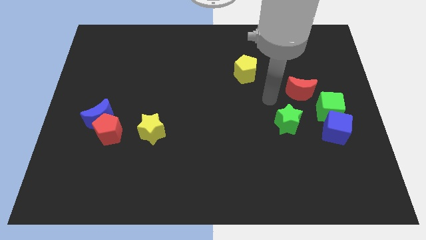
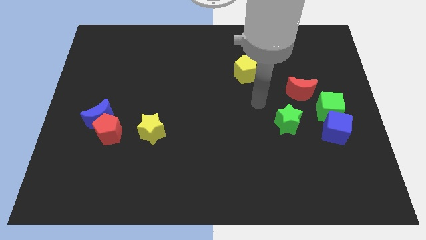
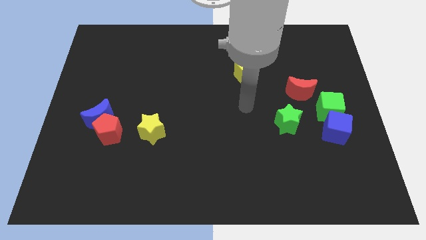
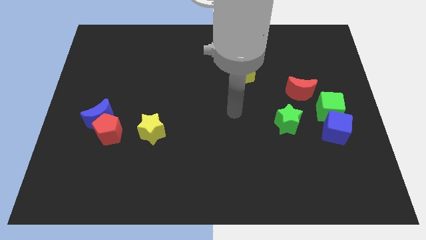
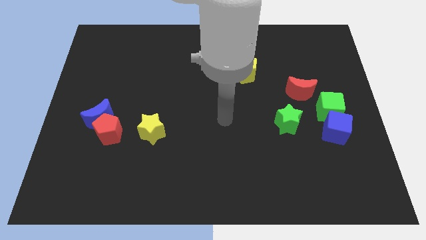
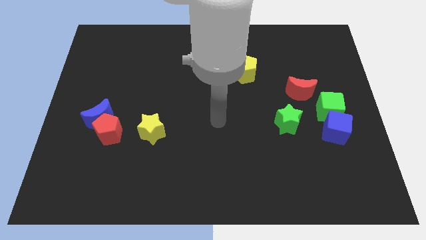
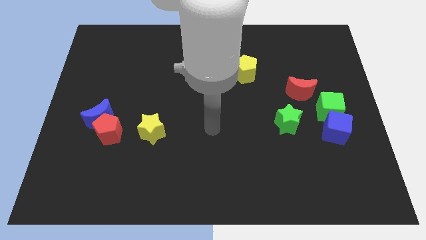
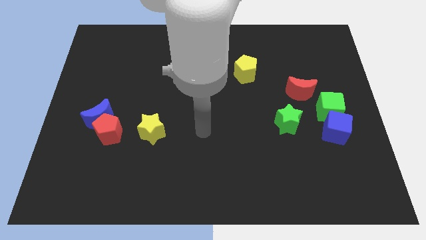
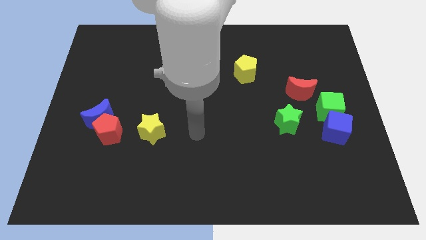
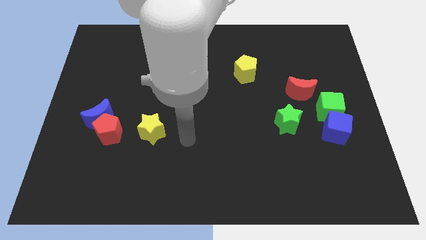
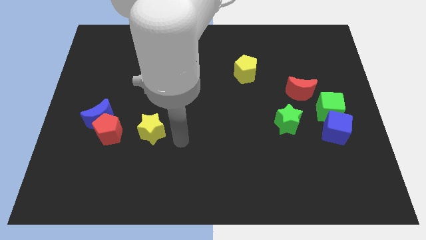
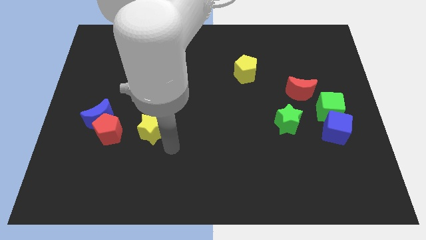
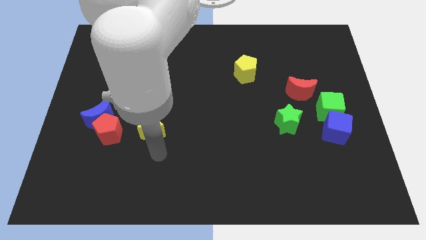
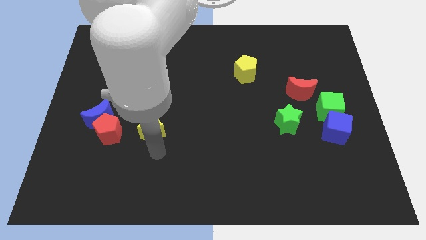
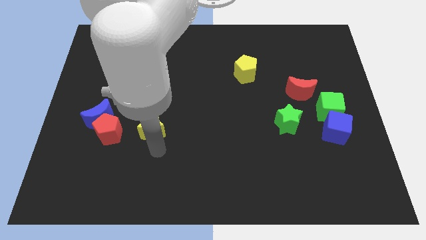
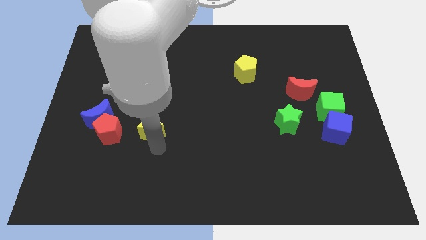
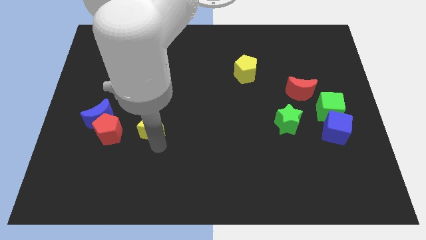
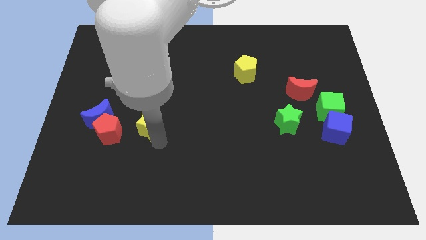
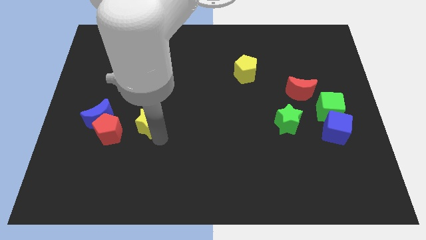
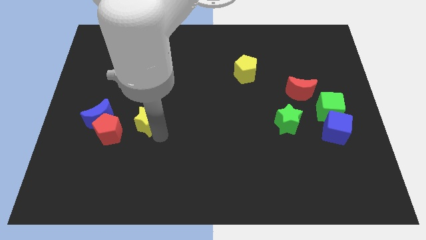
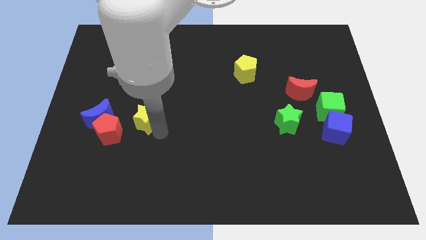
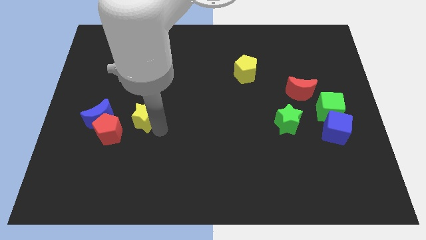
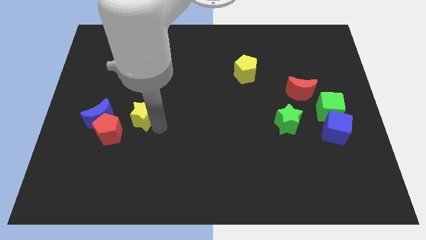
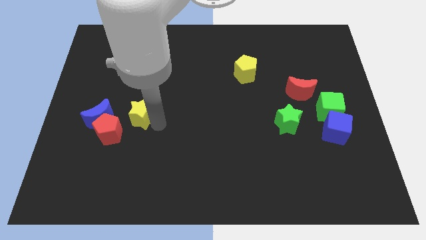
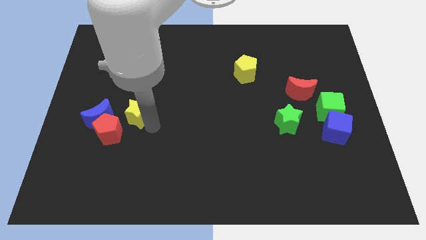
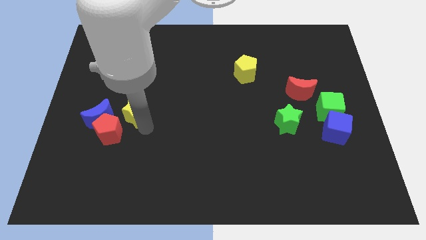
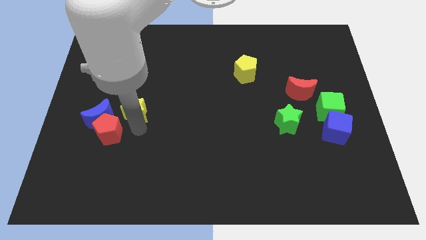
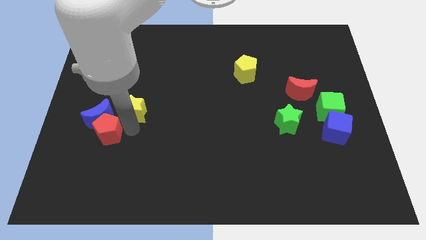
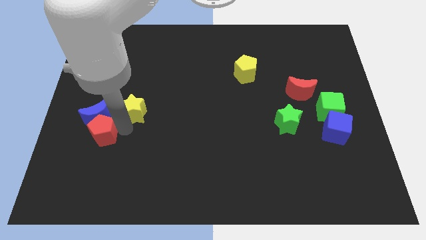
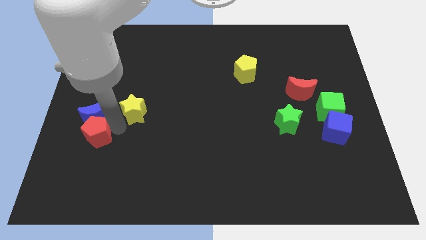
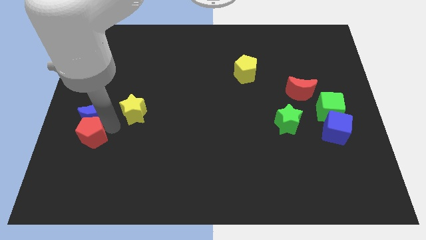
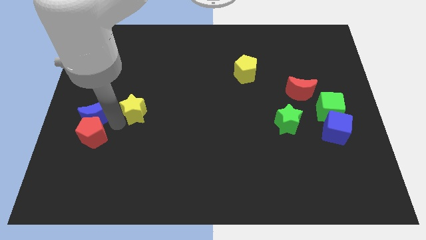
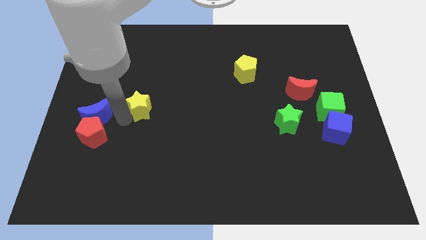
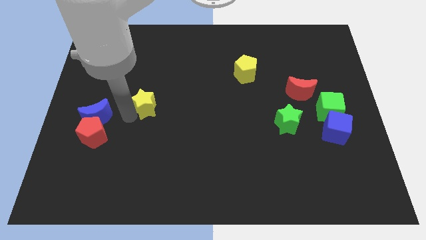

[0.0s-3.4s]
move the yellow star a little upwards

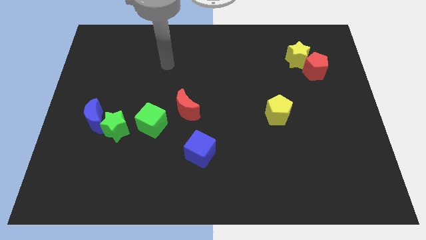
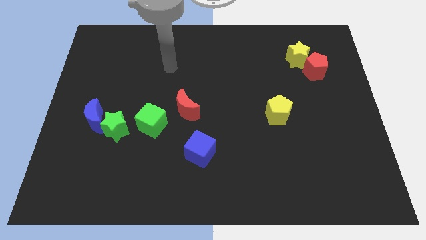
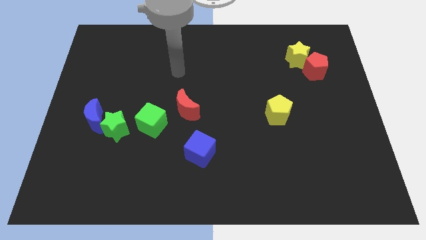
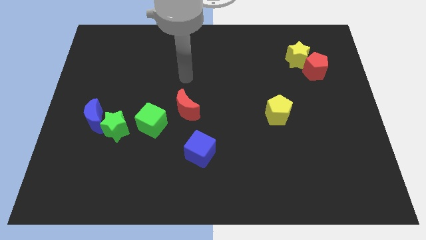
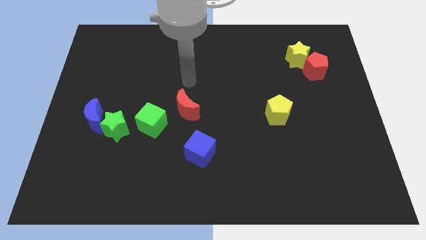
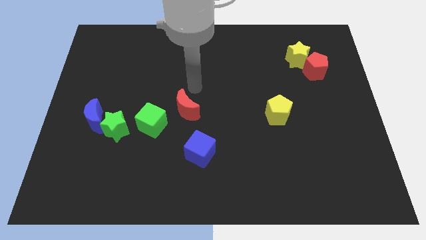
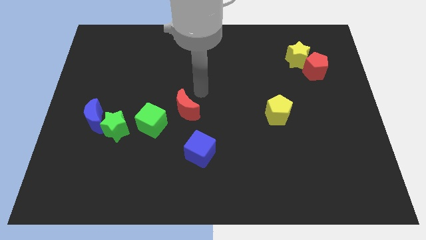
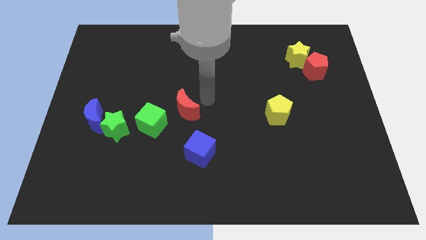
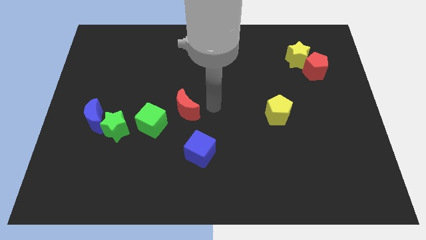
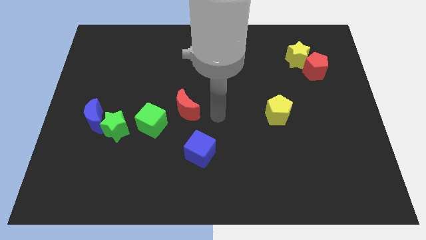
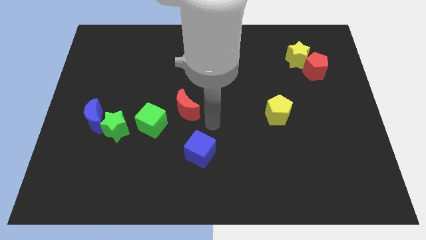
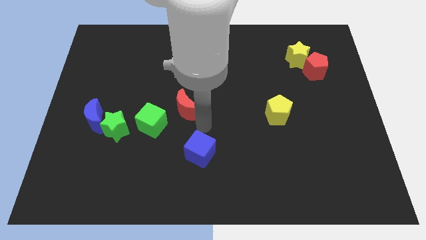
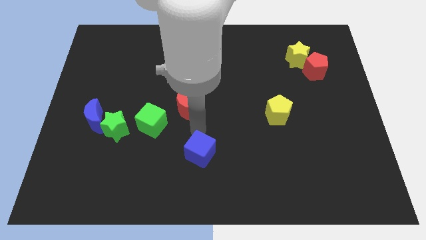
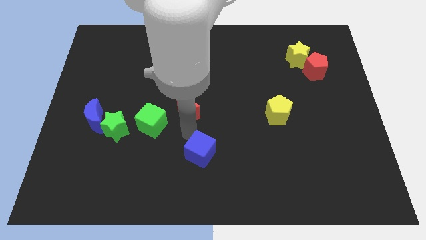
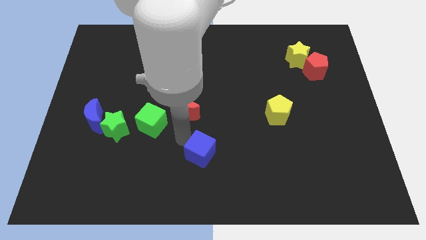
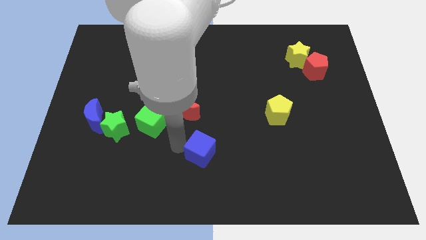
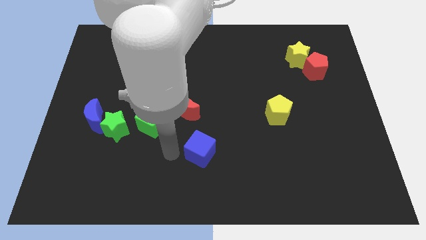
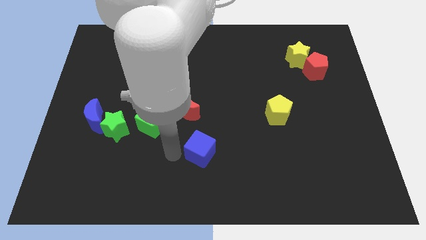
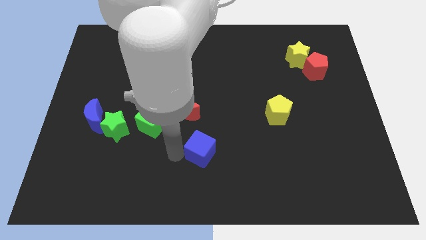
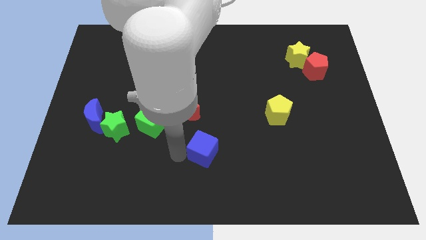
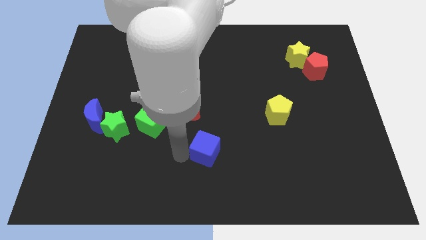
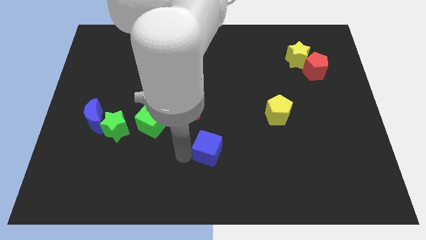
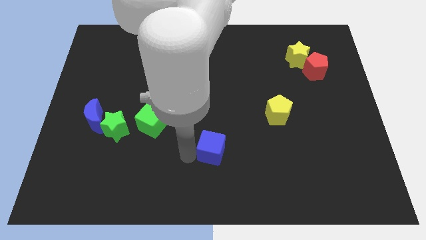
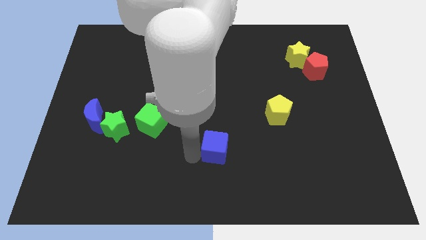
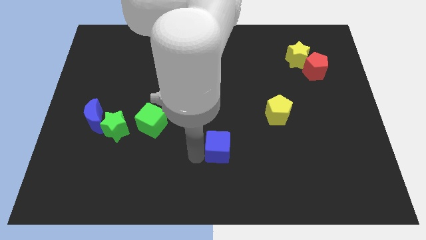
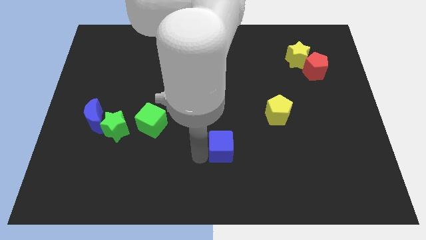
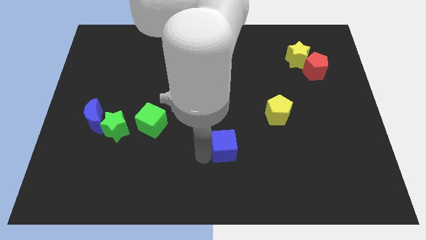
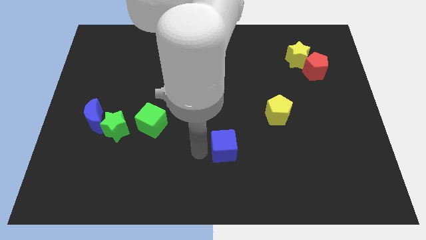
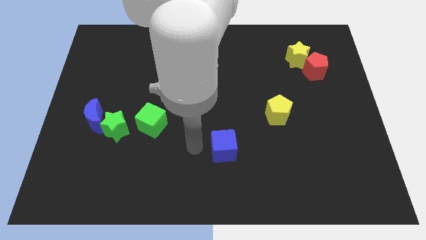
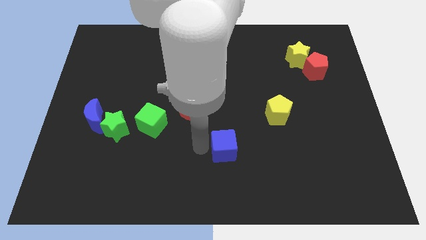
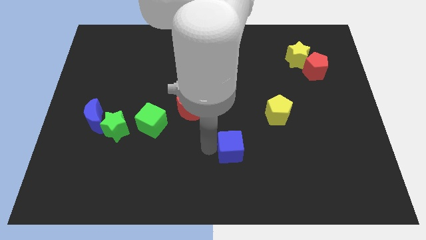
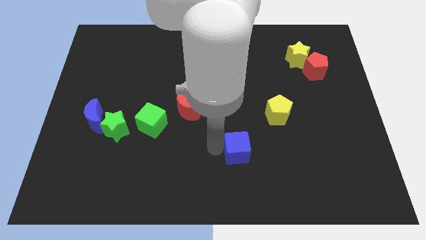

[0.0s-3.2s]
push the blue cube right somewhat

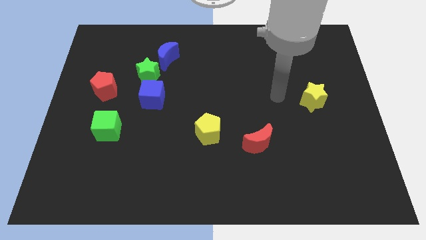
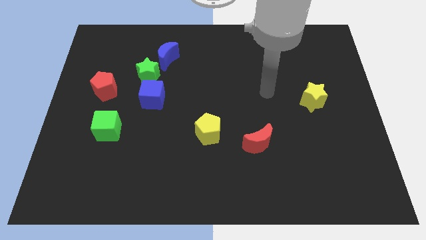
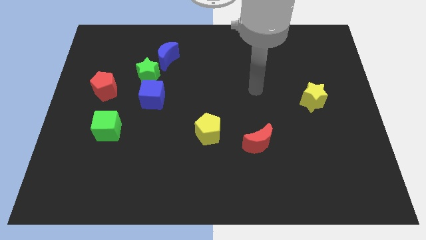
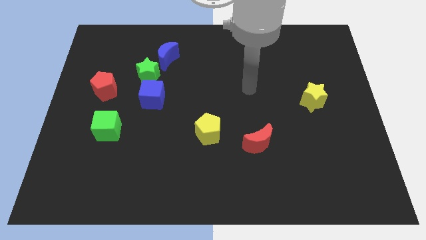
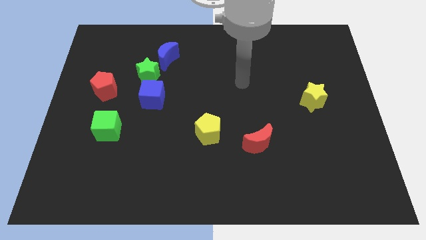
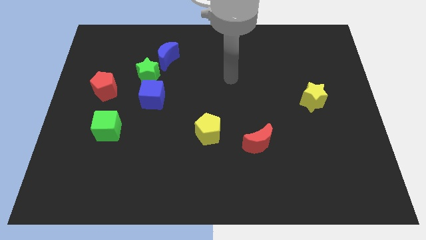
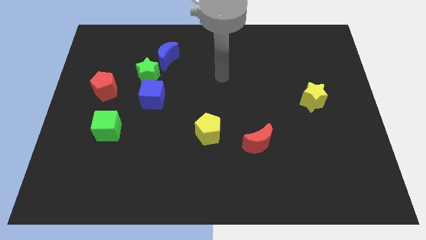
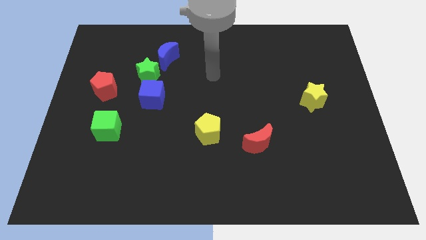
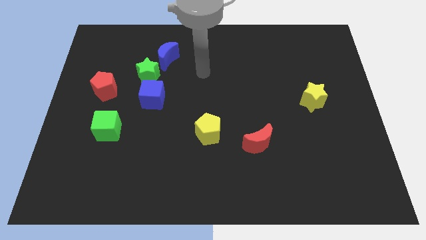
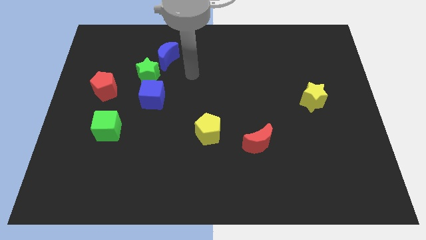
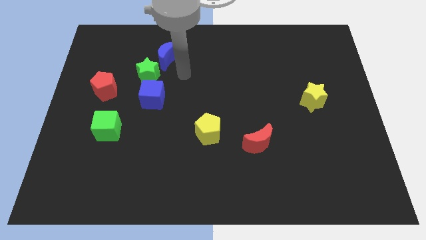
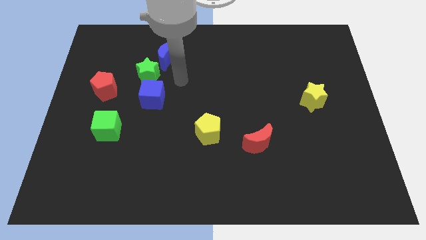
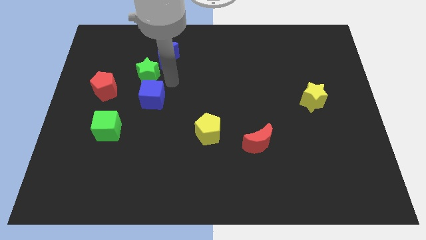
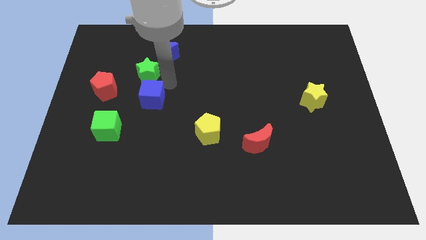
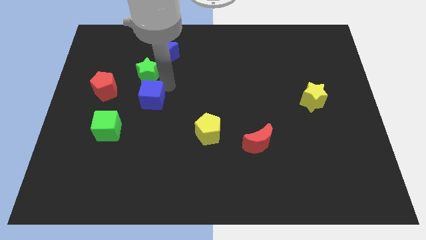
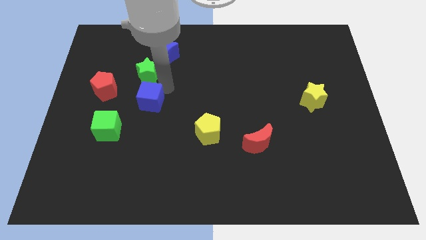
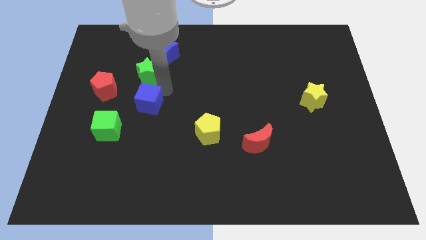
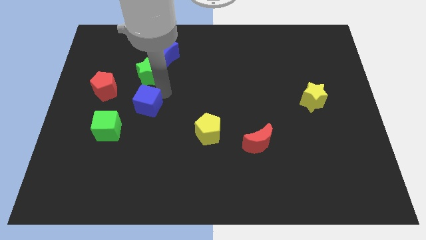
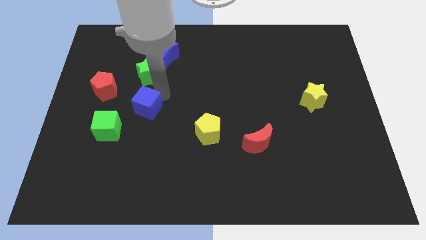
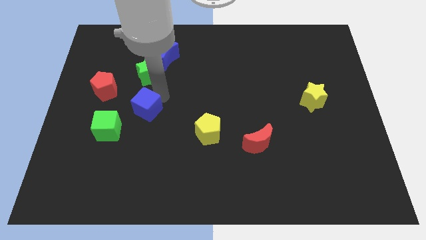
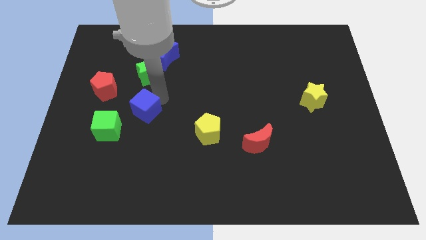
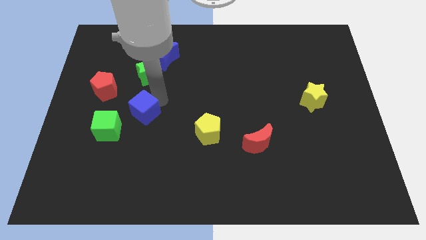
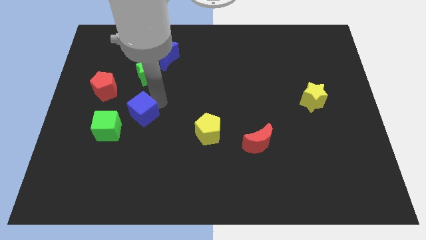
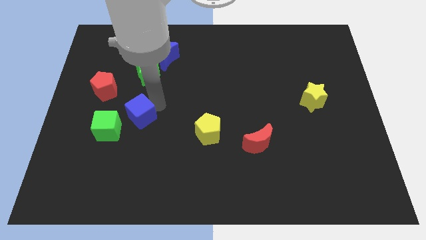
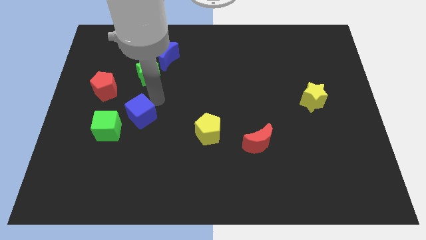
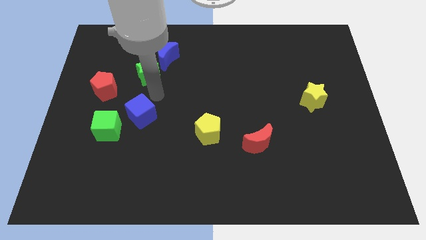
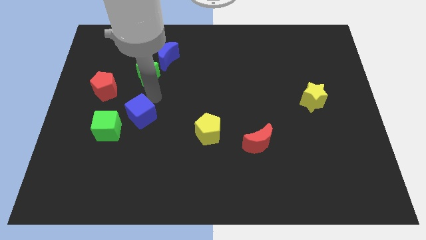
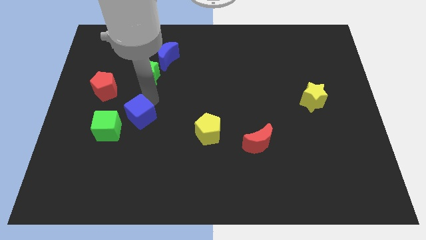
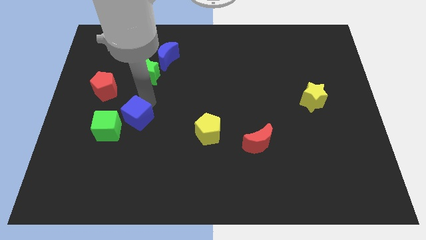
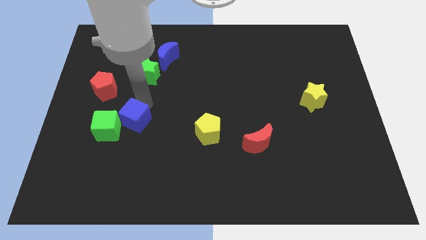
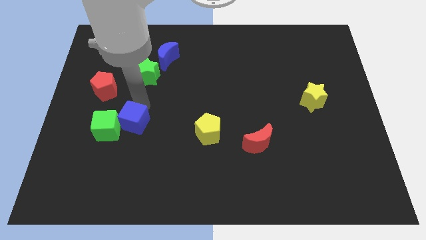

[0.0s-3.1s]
push the blue cube somewhat diagonally down and left
